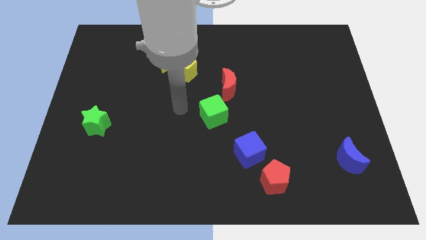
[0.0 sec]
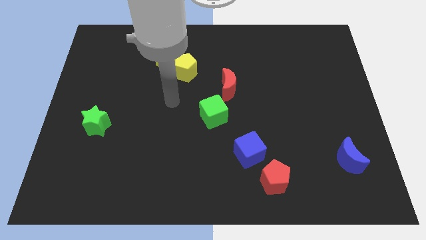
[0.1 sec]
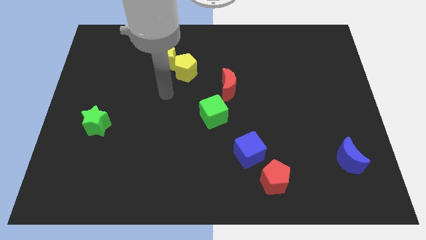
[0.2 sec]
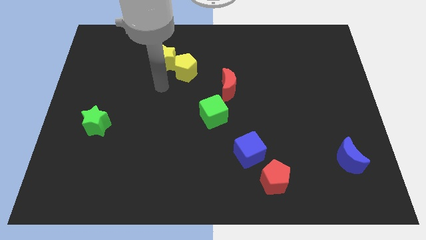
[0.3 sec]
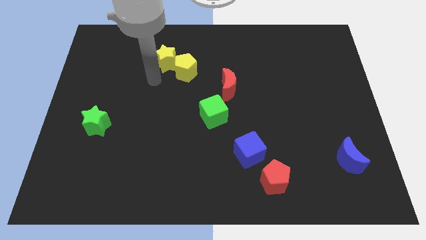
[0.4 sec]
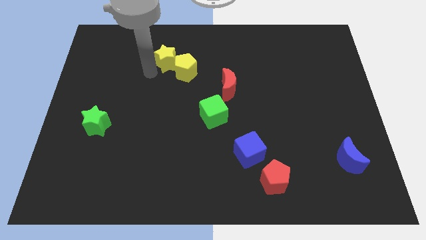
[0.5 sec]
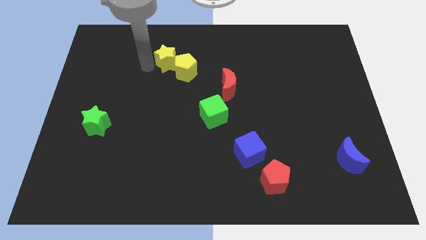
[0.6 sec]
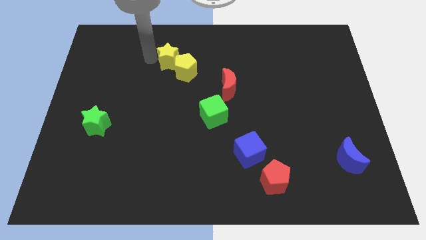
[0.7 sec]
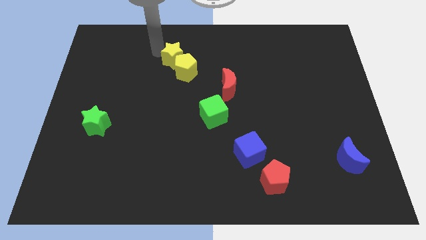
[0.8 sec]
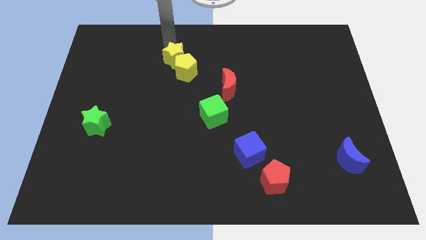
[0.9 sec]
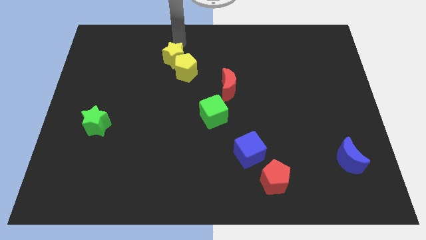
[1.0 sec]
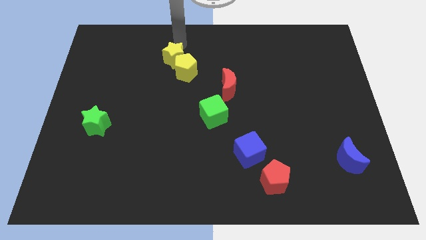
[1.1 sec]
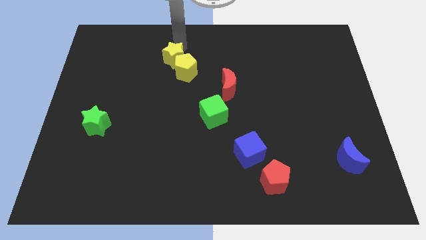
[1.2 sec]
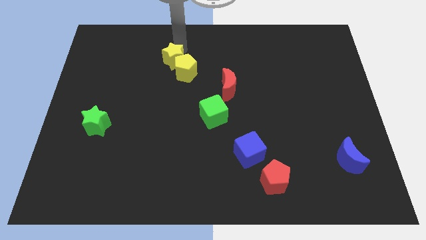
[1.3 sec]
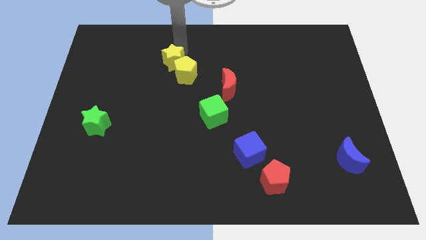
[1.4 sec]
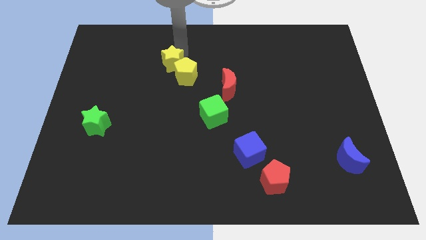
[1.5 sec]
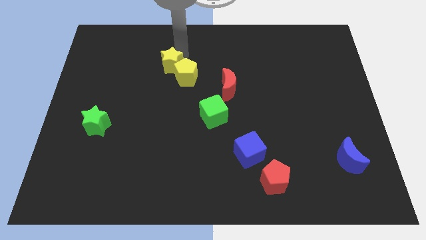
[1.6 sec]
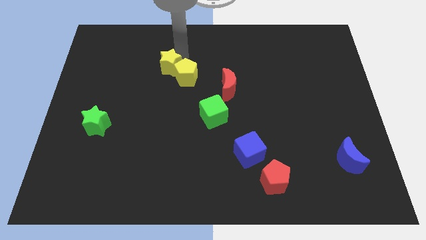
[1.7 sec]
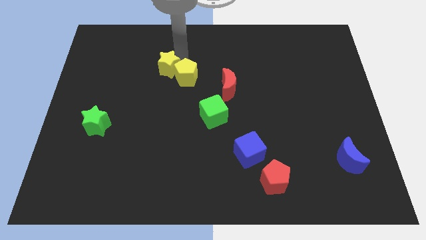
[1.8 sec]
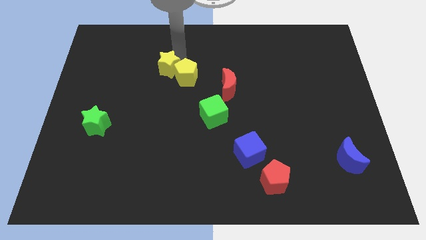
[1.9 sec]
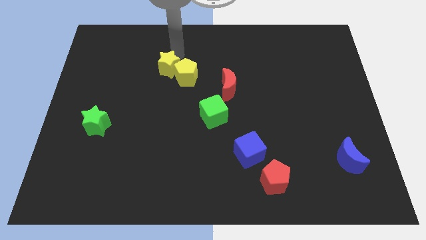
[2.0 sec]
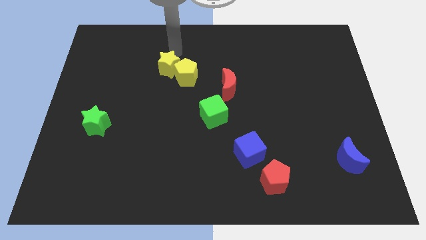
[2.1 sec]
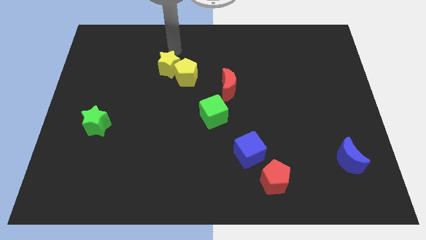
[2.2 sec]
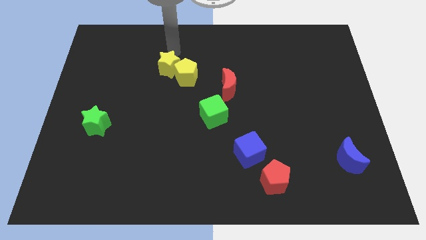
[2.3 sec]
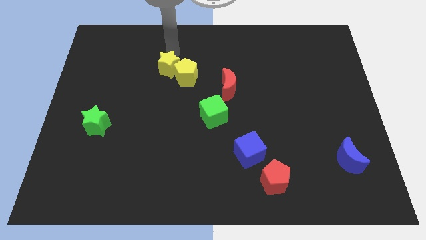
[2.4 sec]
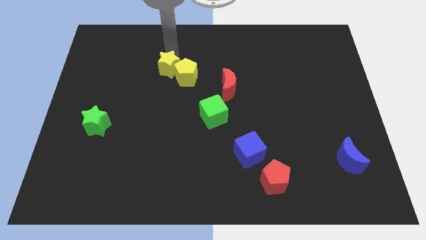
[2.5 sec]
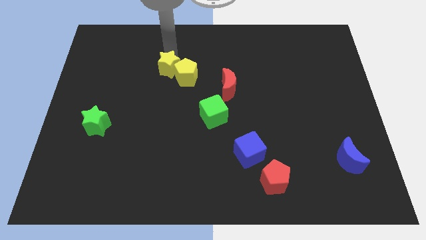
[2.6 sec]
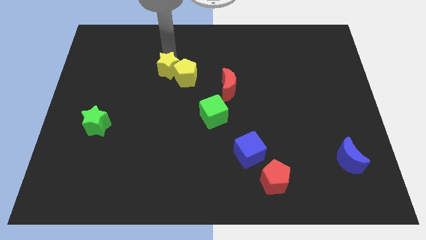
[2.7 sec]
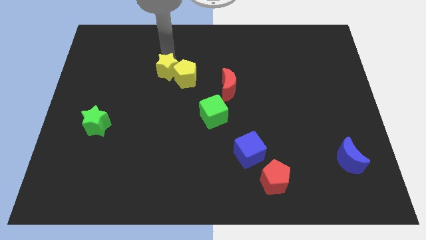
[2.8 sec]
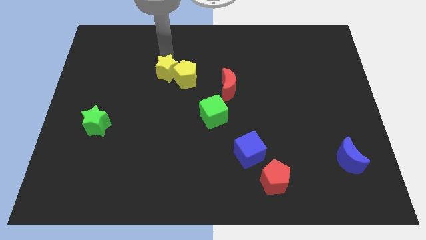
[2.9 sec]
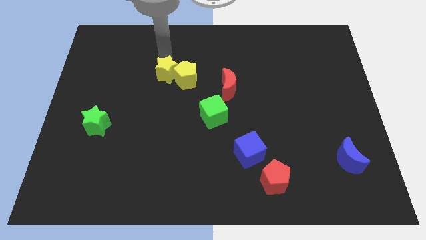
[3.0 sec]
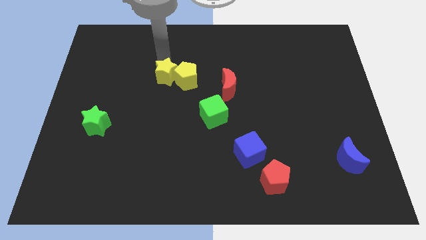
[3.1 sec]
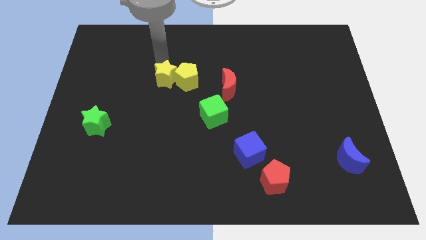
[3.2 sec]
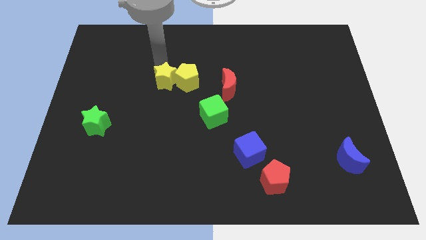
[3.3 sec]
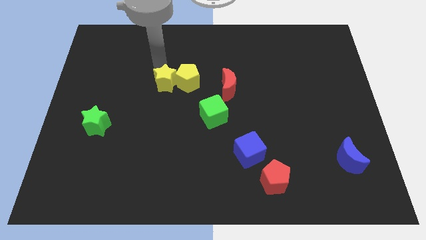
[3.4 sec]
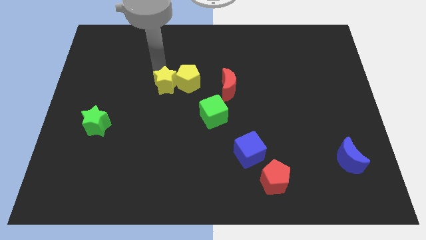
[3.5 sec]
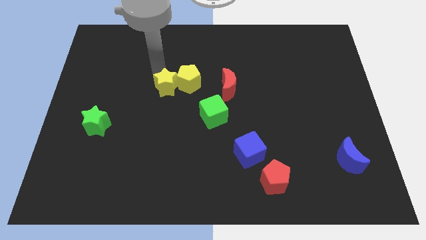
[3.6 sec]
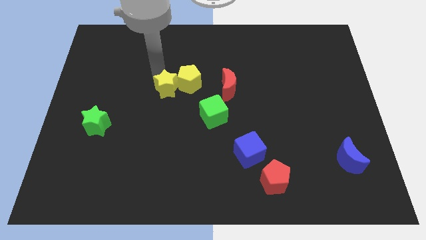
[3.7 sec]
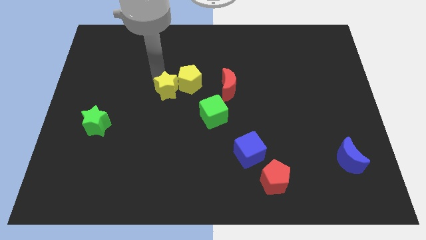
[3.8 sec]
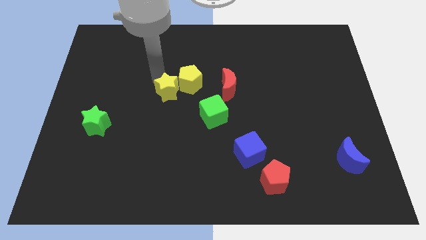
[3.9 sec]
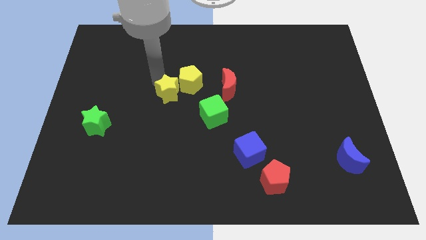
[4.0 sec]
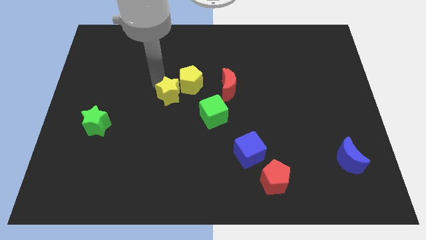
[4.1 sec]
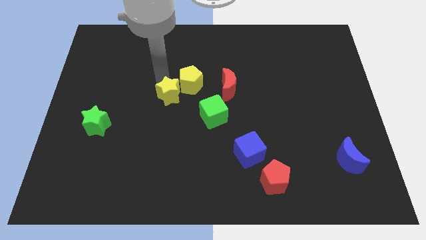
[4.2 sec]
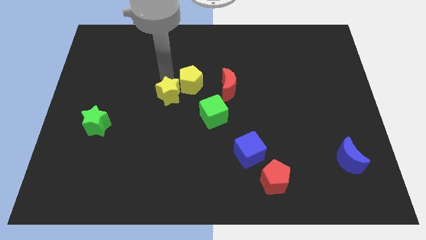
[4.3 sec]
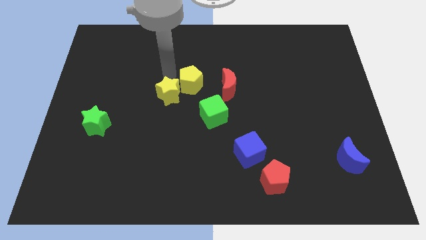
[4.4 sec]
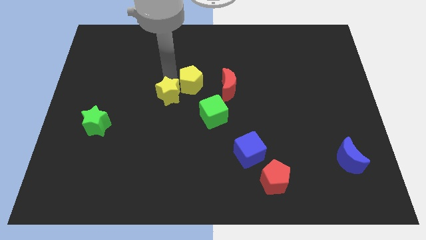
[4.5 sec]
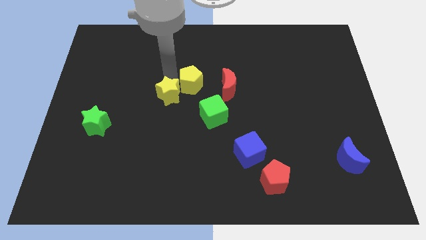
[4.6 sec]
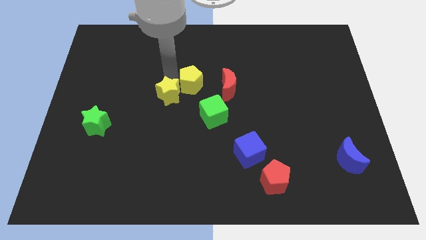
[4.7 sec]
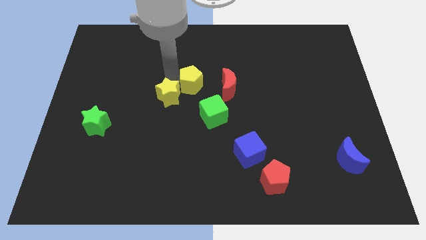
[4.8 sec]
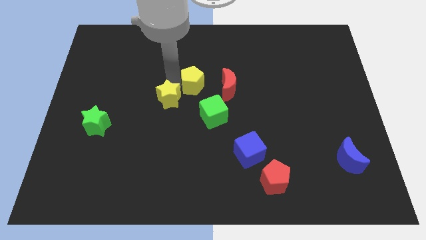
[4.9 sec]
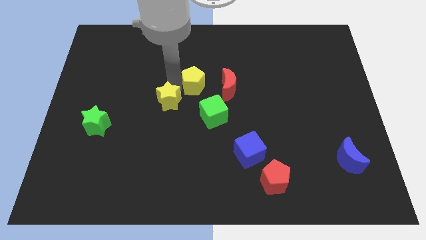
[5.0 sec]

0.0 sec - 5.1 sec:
slide the yellow star left of the green cube

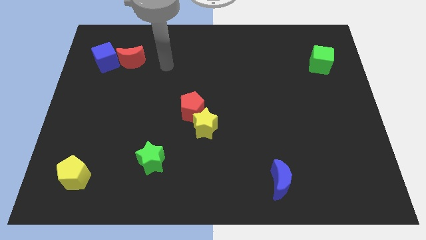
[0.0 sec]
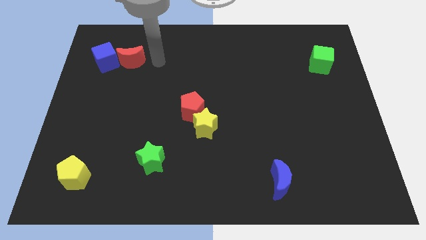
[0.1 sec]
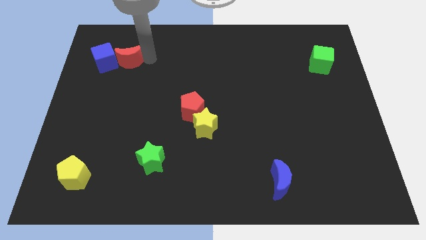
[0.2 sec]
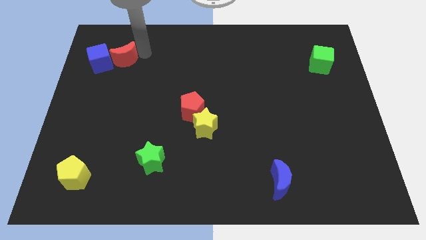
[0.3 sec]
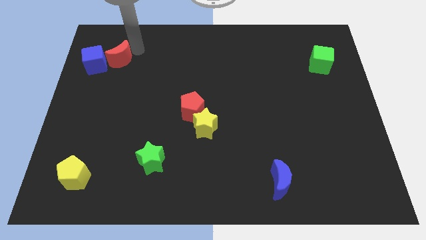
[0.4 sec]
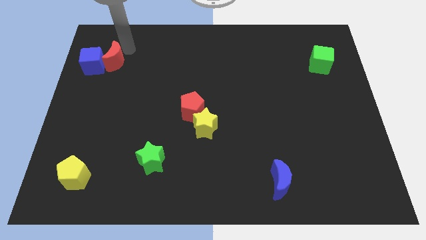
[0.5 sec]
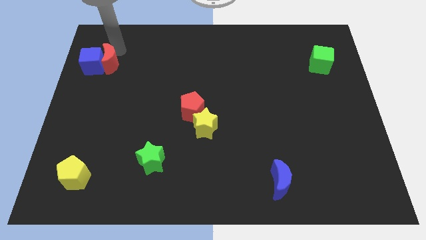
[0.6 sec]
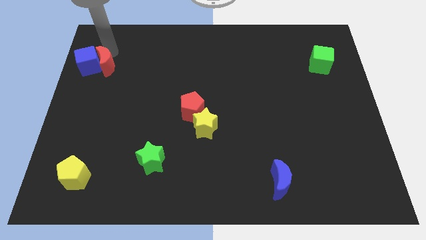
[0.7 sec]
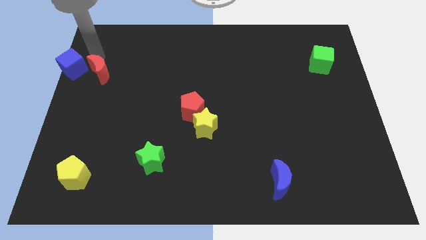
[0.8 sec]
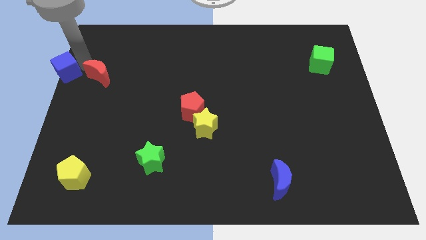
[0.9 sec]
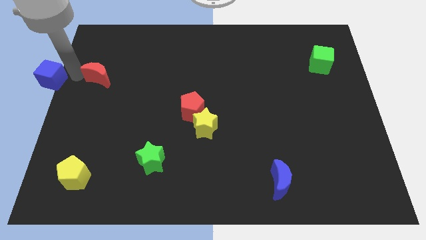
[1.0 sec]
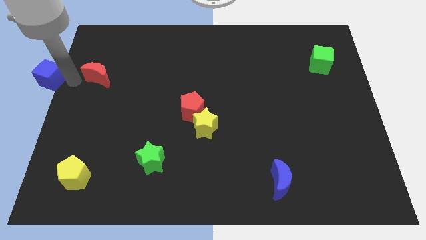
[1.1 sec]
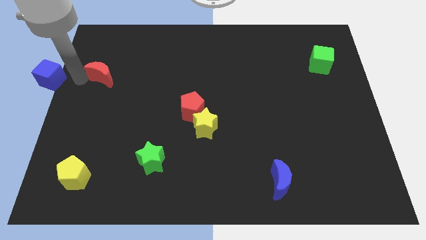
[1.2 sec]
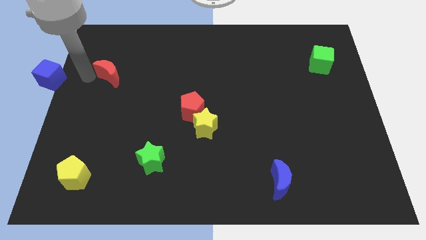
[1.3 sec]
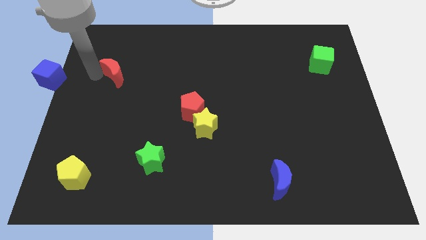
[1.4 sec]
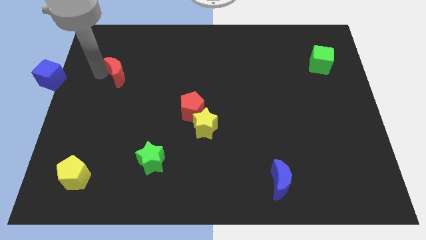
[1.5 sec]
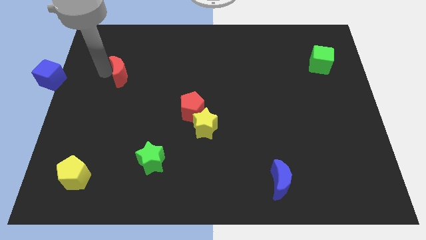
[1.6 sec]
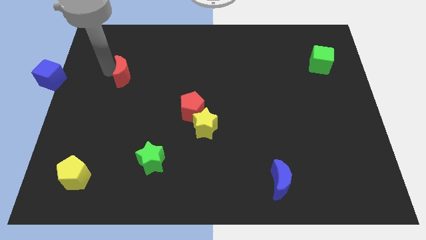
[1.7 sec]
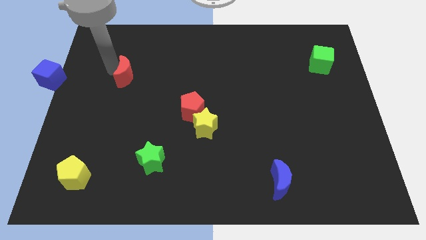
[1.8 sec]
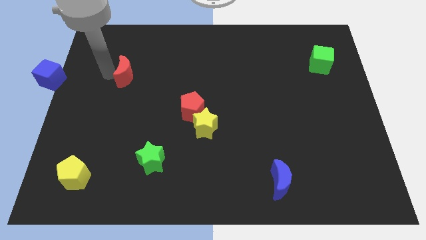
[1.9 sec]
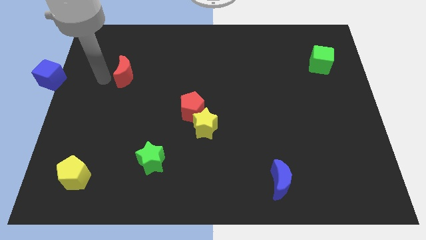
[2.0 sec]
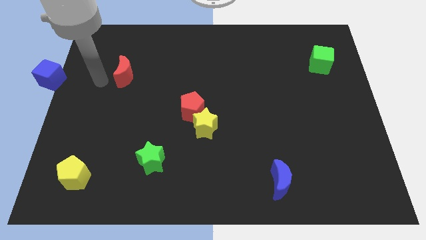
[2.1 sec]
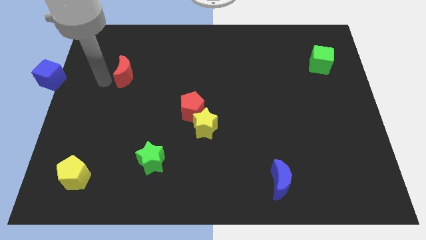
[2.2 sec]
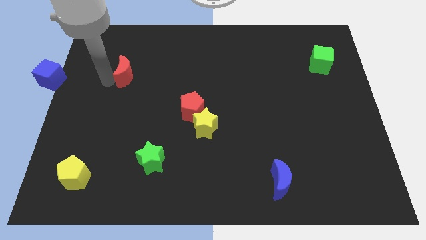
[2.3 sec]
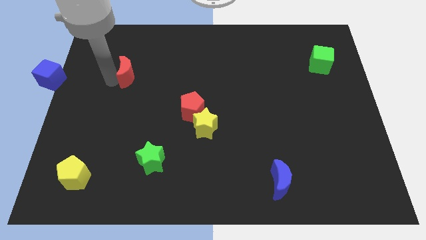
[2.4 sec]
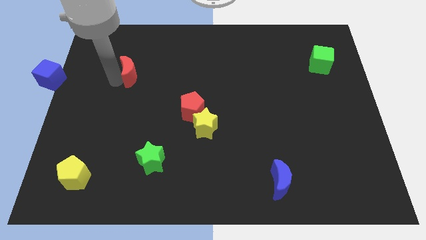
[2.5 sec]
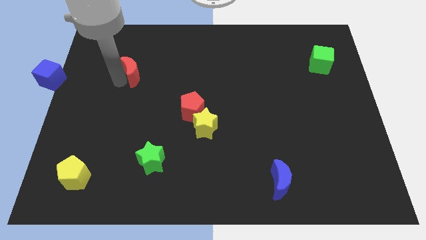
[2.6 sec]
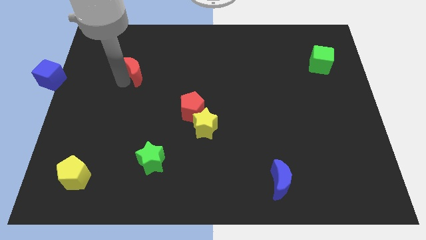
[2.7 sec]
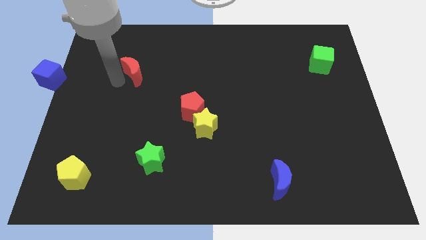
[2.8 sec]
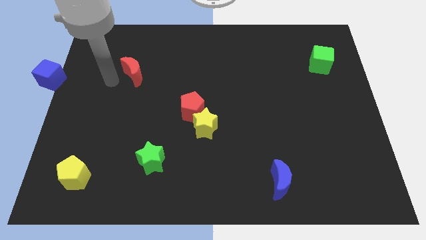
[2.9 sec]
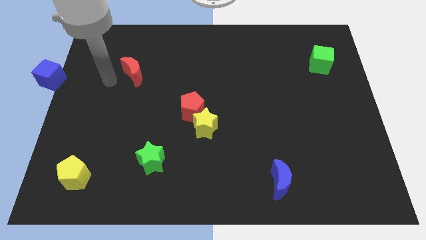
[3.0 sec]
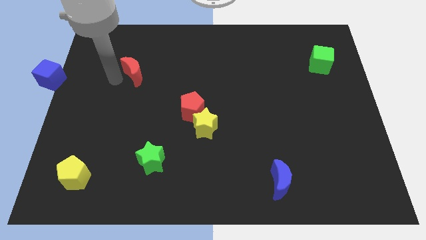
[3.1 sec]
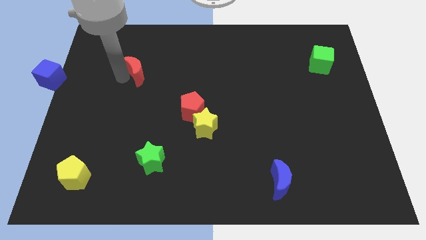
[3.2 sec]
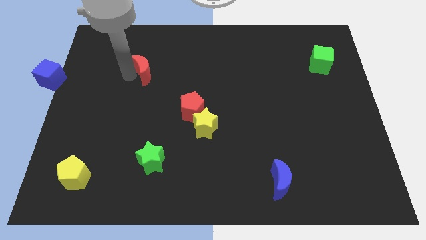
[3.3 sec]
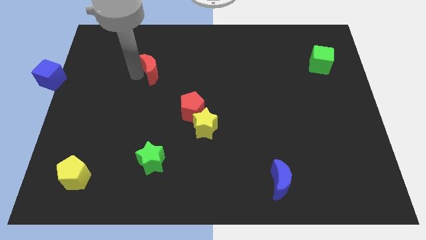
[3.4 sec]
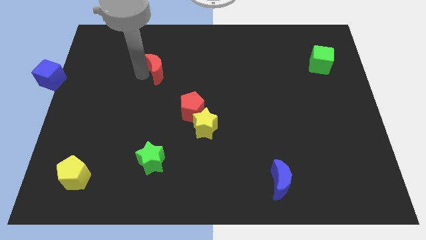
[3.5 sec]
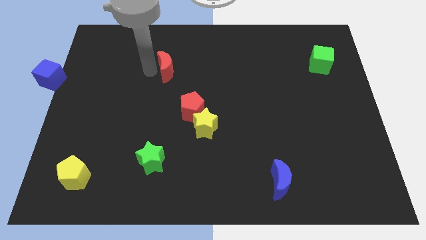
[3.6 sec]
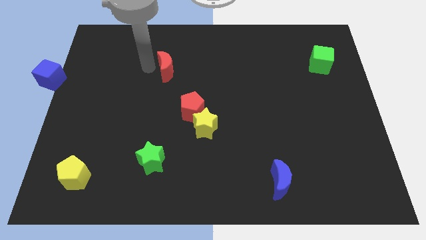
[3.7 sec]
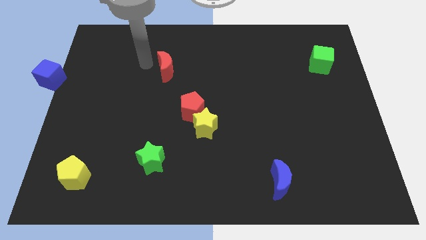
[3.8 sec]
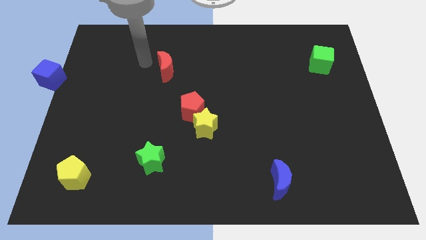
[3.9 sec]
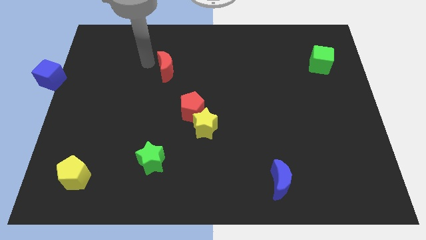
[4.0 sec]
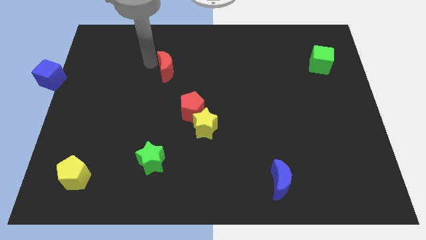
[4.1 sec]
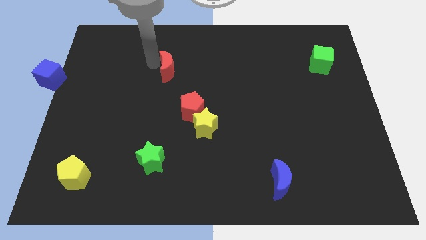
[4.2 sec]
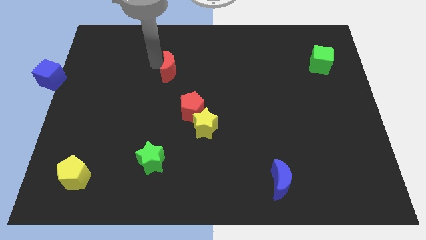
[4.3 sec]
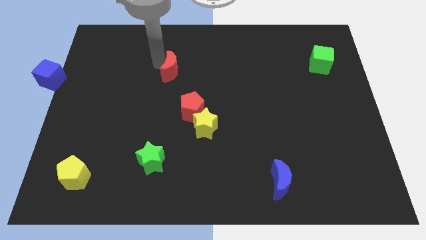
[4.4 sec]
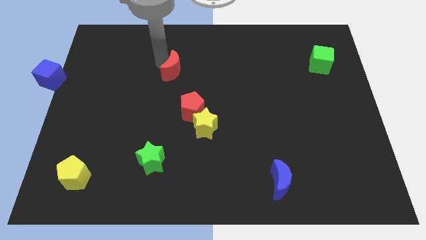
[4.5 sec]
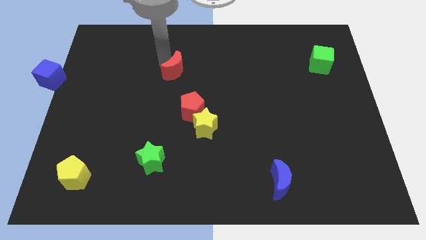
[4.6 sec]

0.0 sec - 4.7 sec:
push the red moon above the red pentagon
